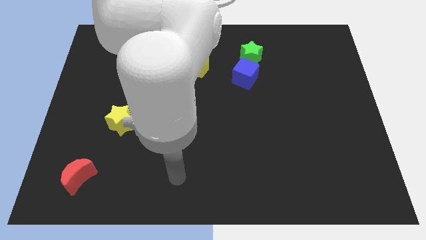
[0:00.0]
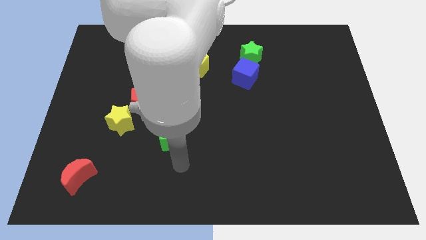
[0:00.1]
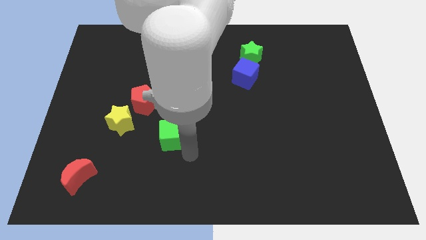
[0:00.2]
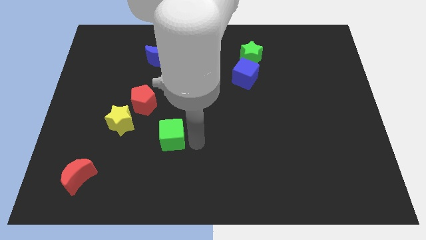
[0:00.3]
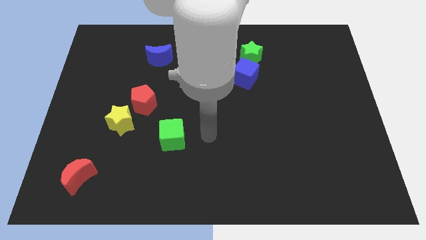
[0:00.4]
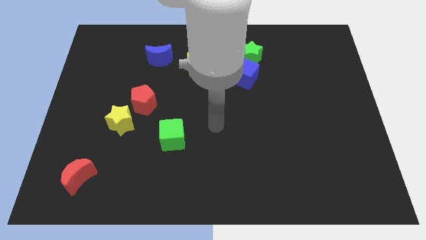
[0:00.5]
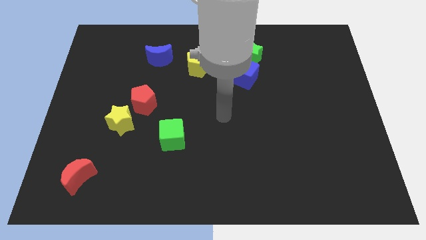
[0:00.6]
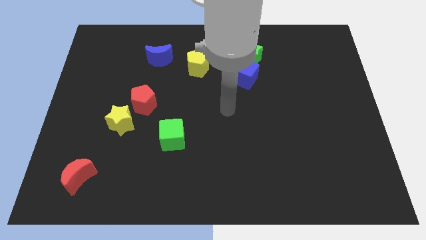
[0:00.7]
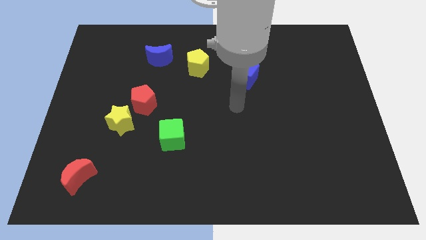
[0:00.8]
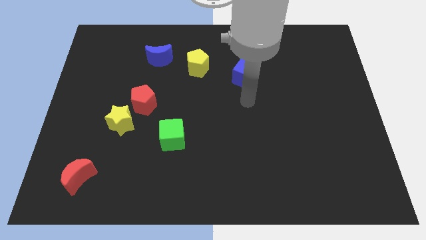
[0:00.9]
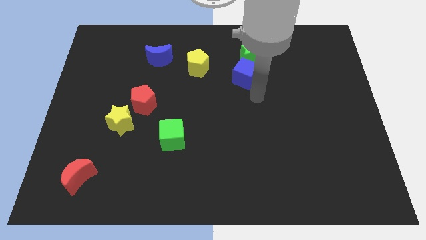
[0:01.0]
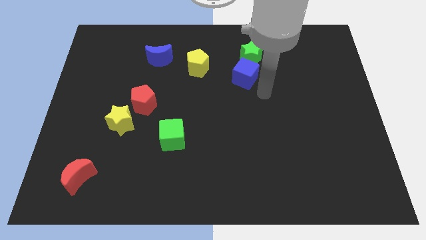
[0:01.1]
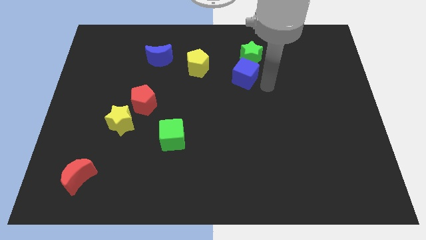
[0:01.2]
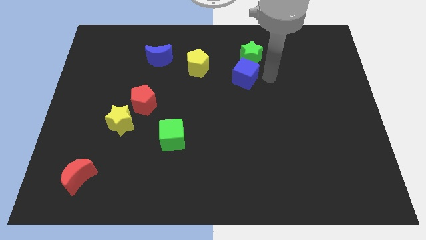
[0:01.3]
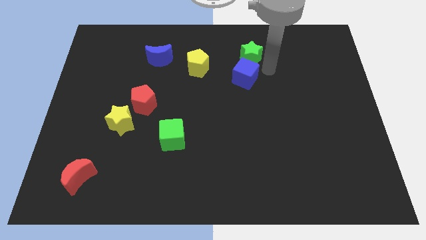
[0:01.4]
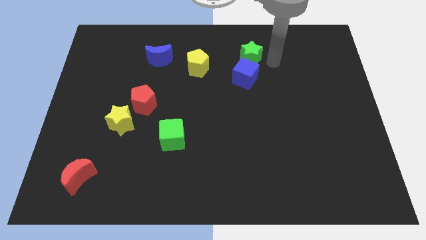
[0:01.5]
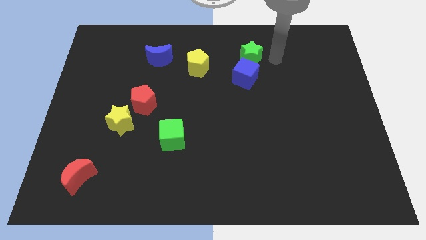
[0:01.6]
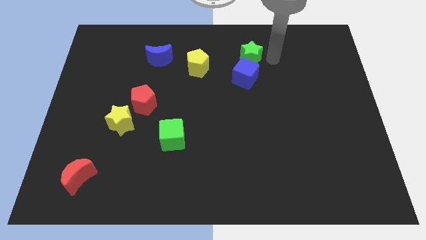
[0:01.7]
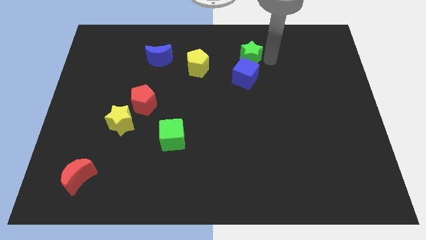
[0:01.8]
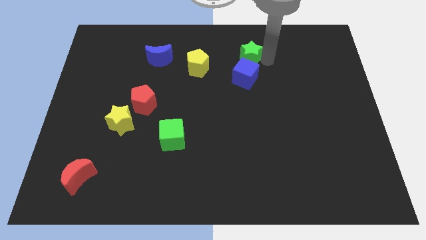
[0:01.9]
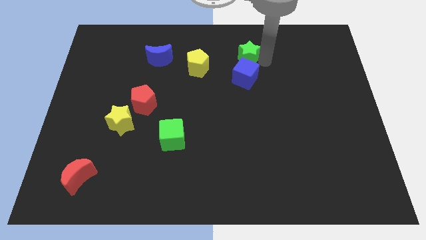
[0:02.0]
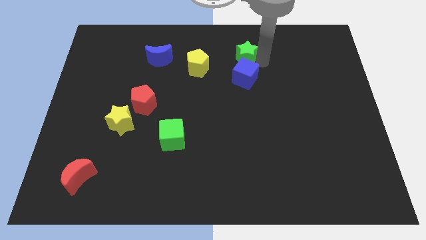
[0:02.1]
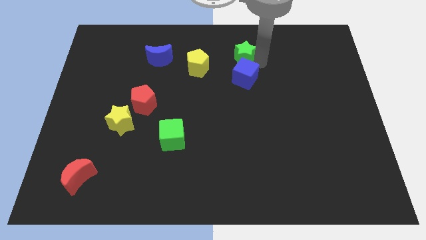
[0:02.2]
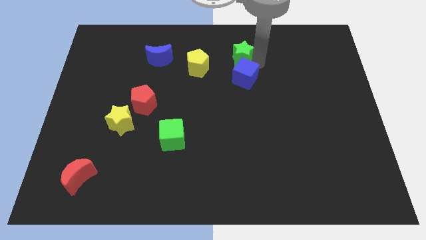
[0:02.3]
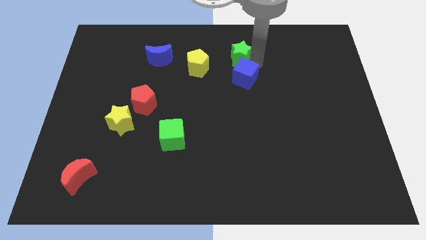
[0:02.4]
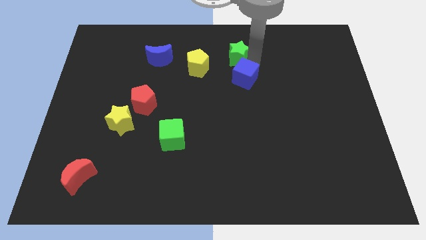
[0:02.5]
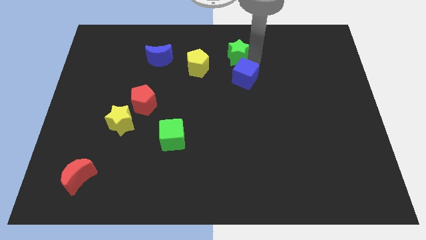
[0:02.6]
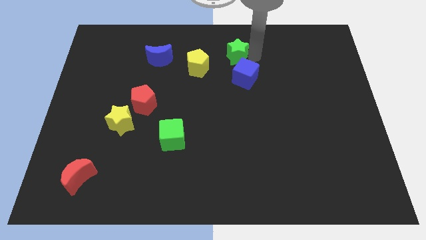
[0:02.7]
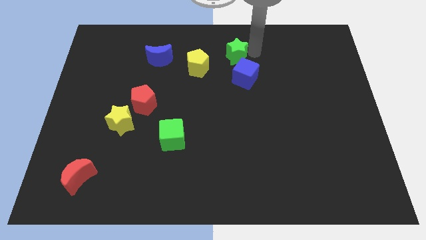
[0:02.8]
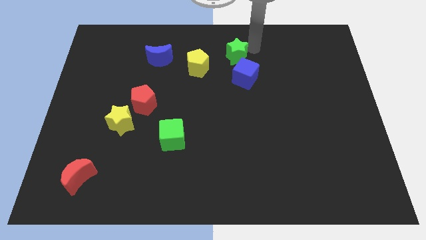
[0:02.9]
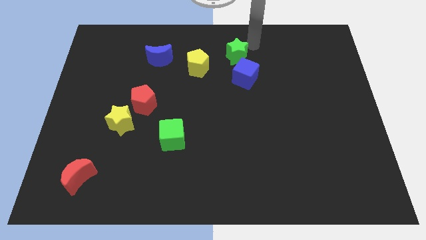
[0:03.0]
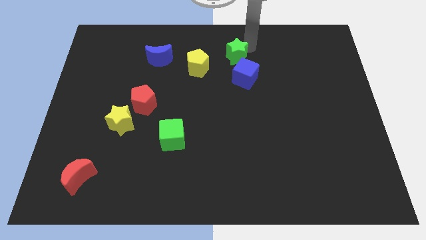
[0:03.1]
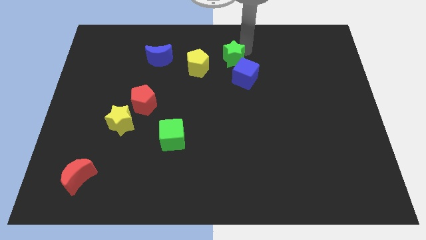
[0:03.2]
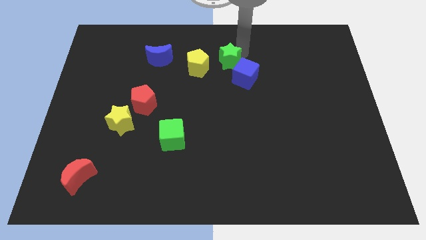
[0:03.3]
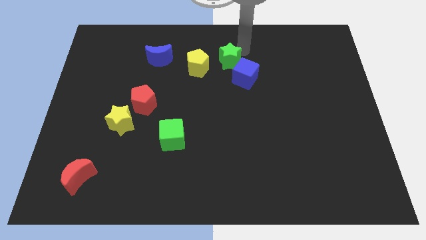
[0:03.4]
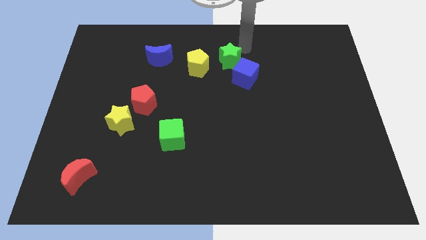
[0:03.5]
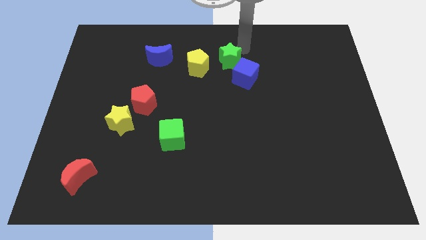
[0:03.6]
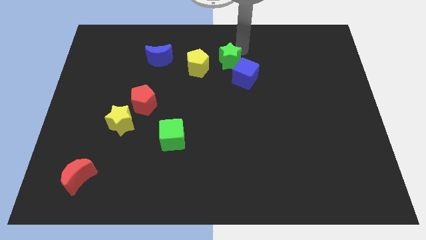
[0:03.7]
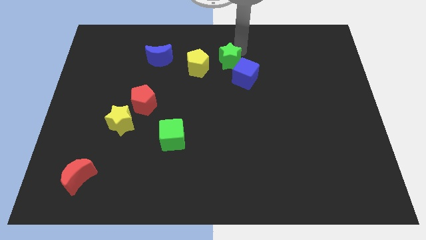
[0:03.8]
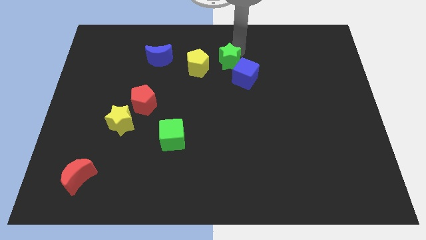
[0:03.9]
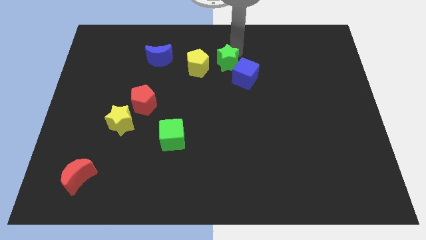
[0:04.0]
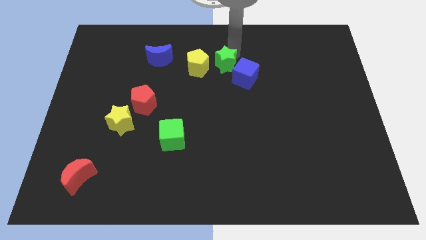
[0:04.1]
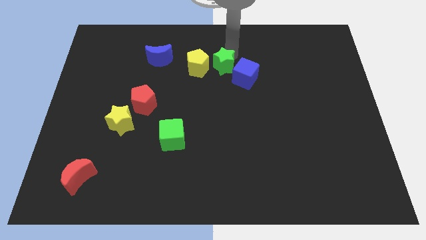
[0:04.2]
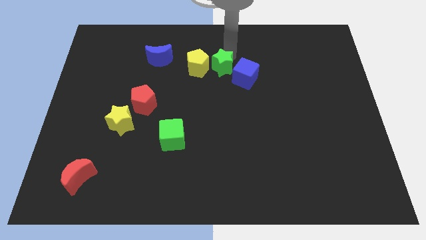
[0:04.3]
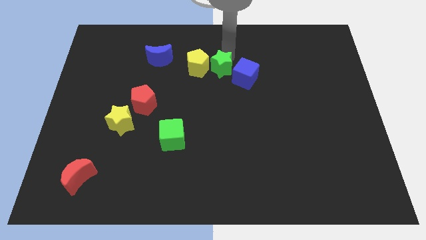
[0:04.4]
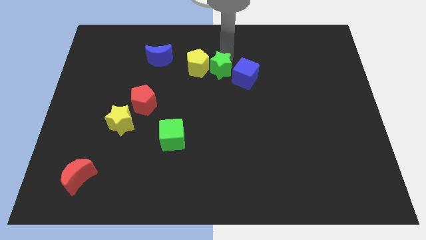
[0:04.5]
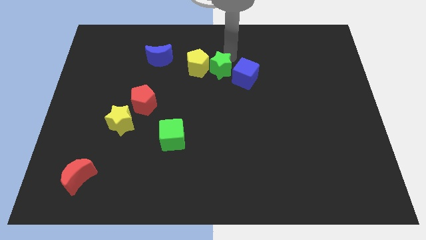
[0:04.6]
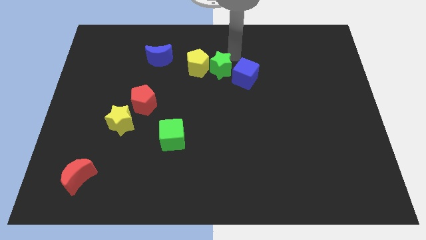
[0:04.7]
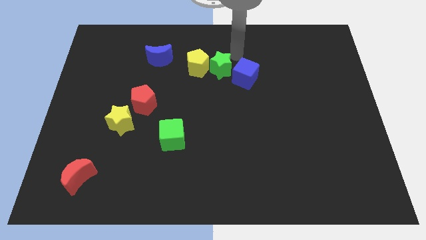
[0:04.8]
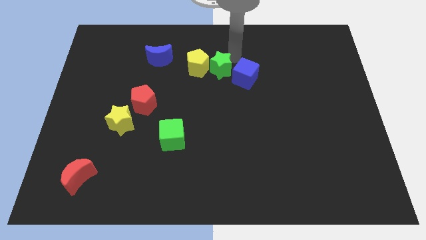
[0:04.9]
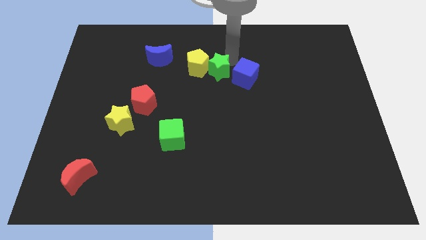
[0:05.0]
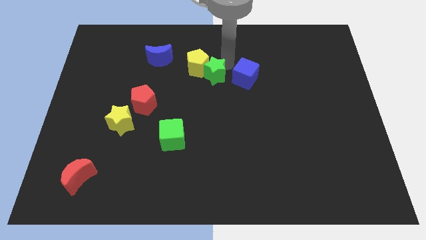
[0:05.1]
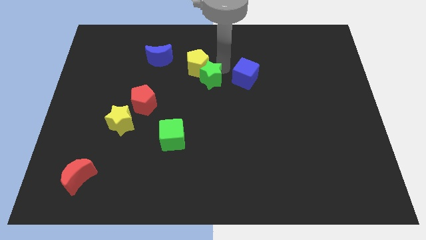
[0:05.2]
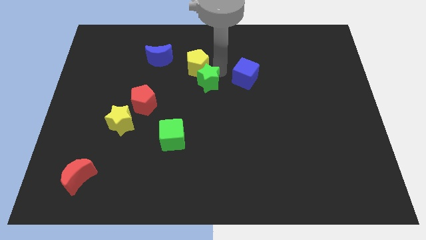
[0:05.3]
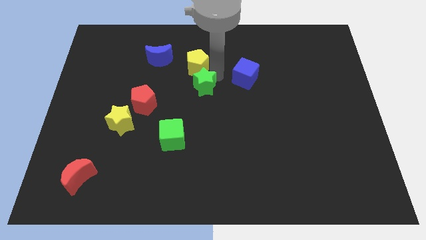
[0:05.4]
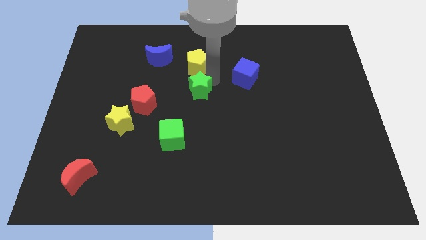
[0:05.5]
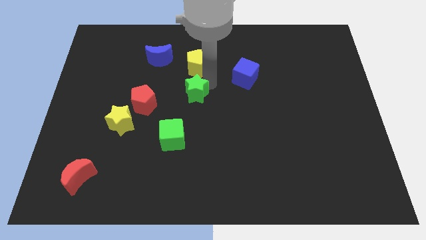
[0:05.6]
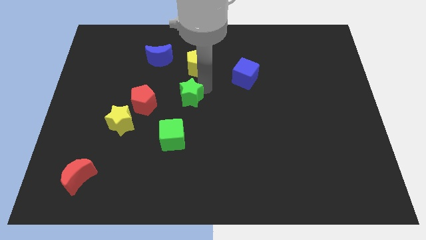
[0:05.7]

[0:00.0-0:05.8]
push the green star downwards and left

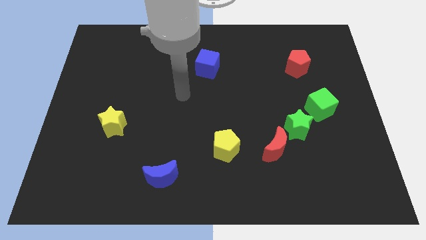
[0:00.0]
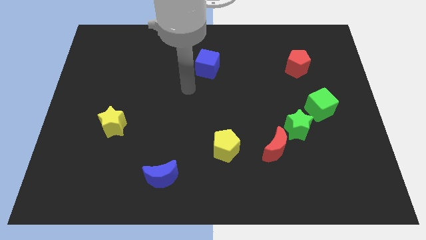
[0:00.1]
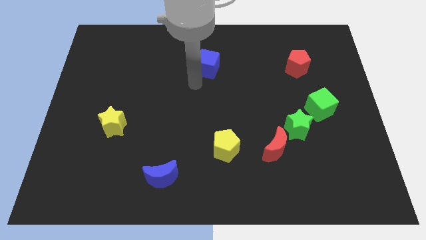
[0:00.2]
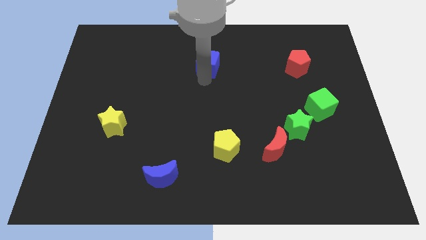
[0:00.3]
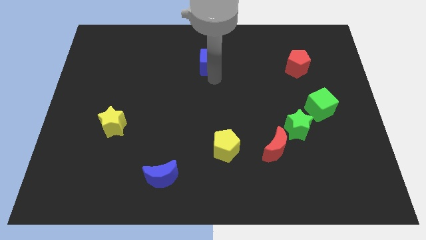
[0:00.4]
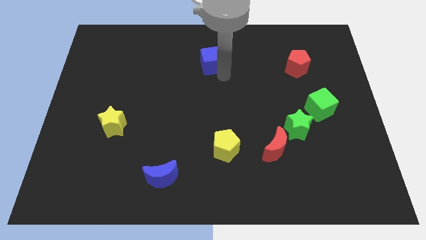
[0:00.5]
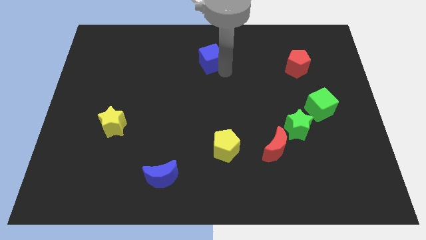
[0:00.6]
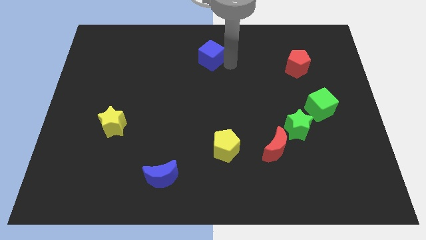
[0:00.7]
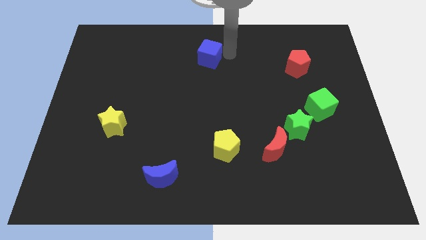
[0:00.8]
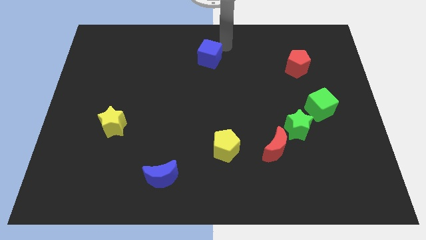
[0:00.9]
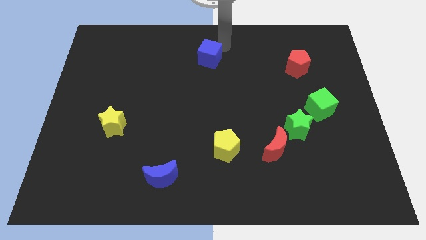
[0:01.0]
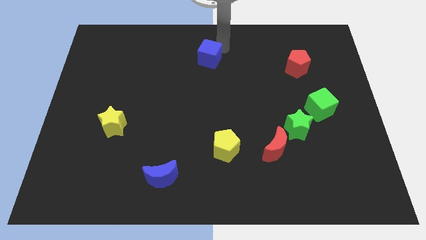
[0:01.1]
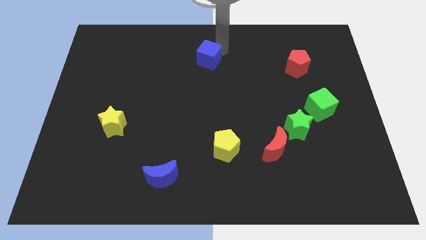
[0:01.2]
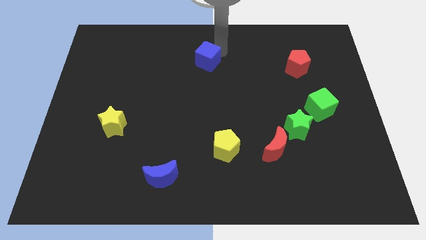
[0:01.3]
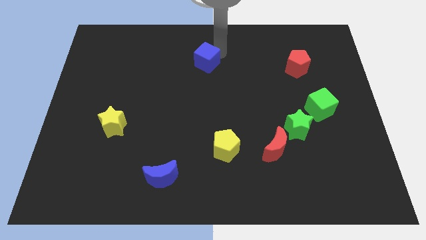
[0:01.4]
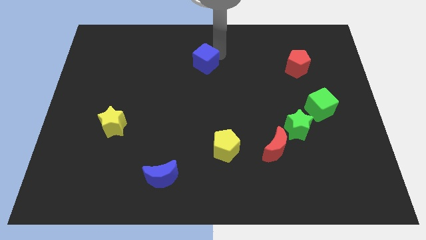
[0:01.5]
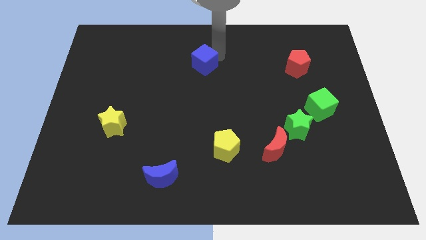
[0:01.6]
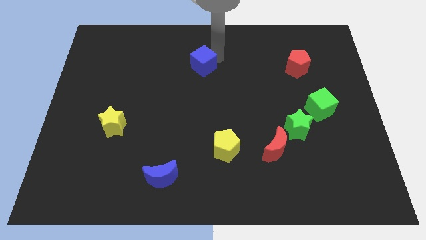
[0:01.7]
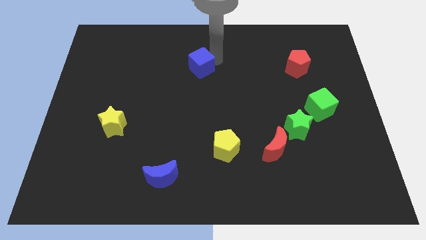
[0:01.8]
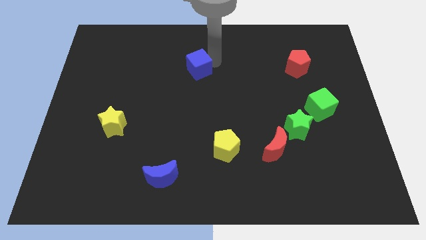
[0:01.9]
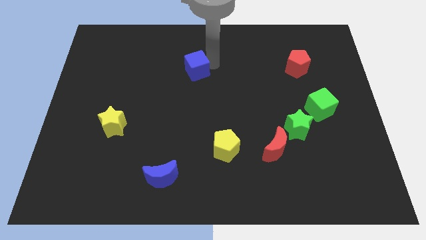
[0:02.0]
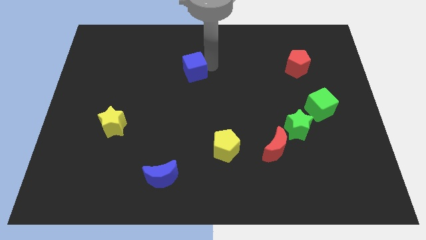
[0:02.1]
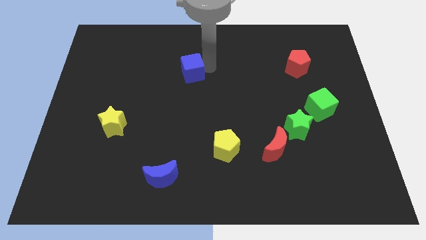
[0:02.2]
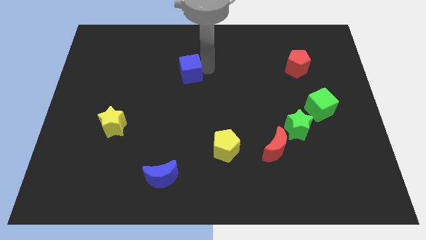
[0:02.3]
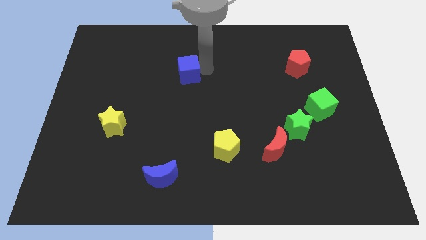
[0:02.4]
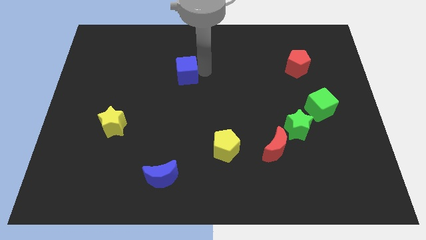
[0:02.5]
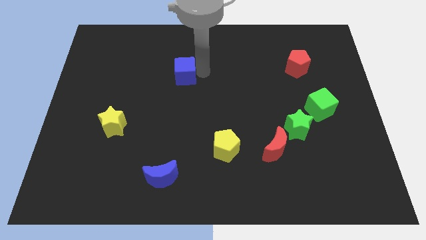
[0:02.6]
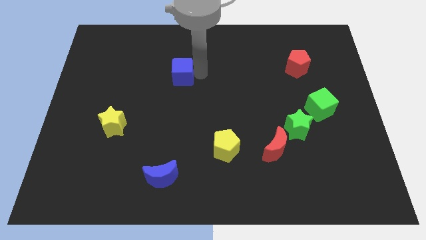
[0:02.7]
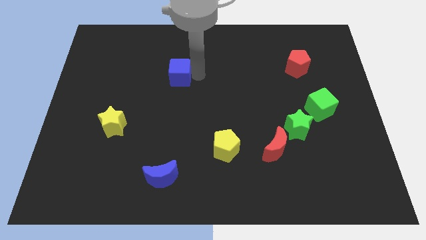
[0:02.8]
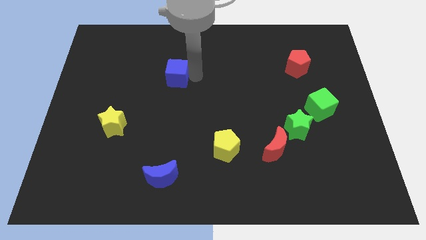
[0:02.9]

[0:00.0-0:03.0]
slightly push the blue cube to the left
